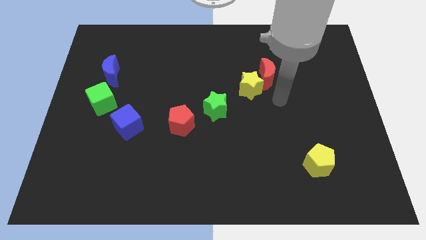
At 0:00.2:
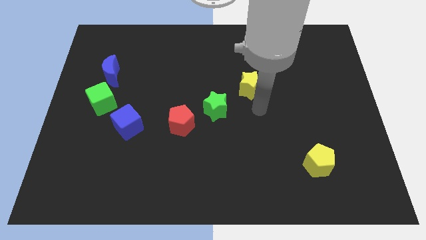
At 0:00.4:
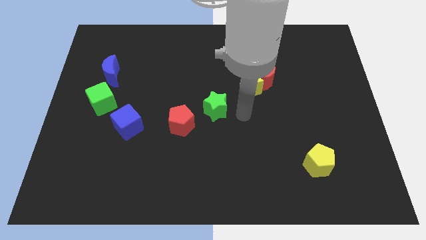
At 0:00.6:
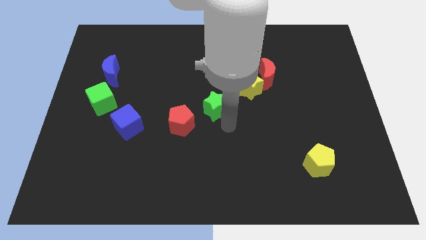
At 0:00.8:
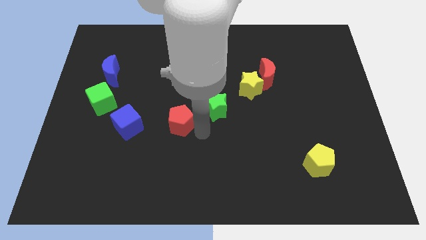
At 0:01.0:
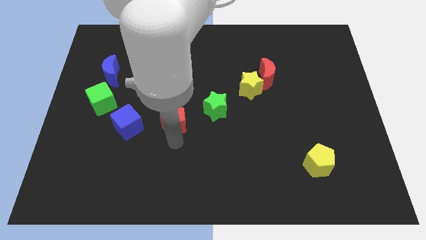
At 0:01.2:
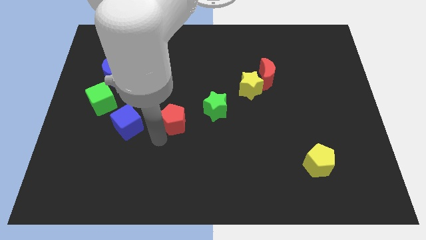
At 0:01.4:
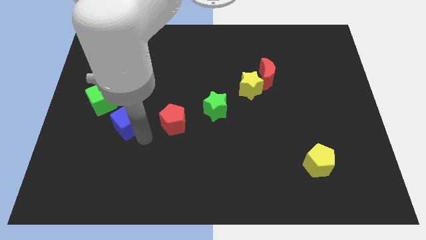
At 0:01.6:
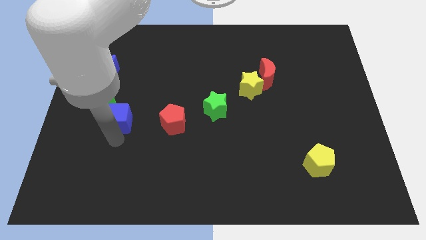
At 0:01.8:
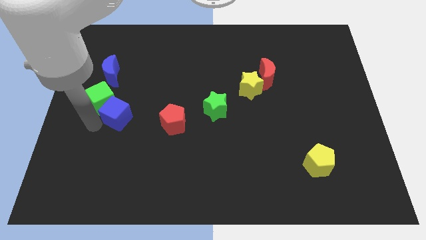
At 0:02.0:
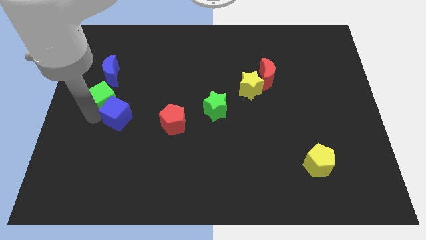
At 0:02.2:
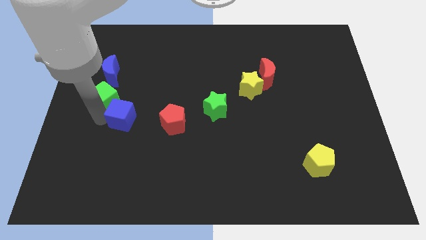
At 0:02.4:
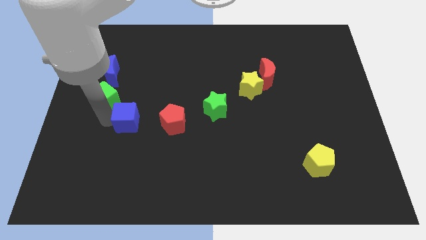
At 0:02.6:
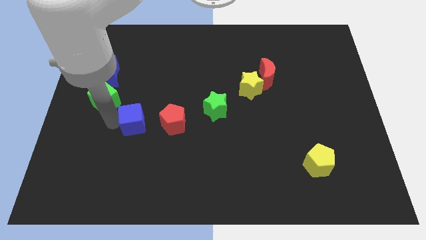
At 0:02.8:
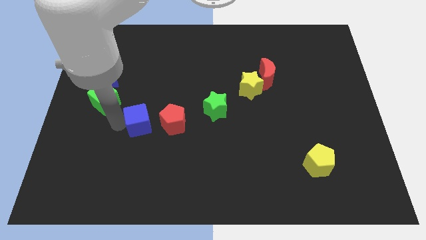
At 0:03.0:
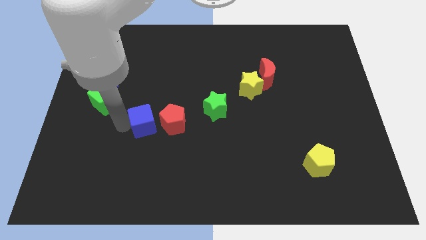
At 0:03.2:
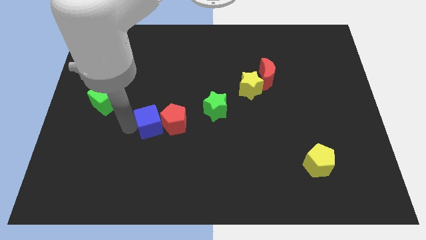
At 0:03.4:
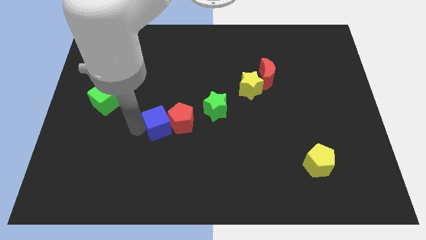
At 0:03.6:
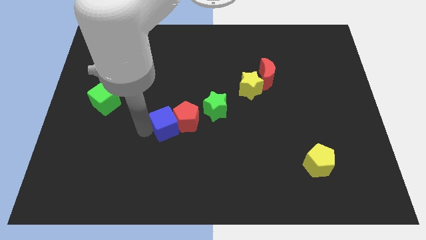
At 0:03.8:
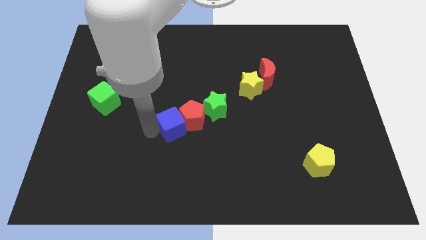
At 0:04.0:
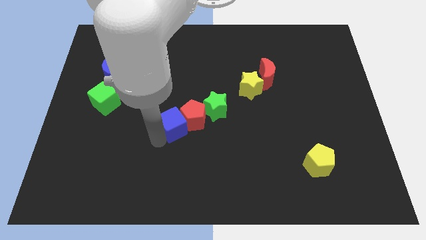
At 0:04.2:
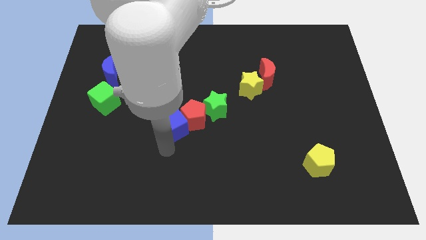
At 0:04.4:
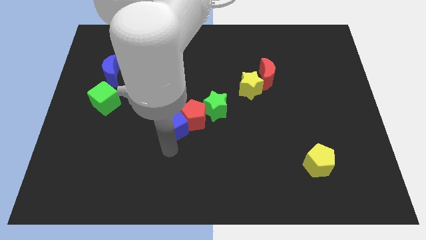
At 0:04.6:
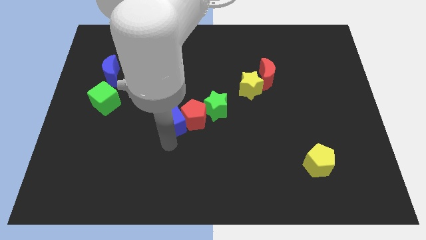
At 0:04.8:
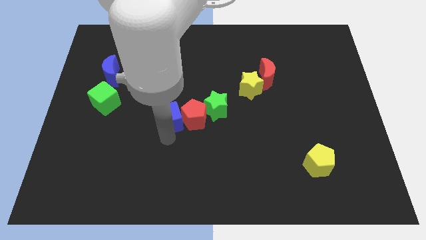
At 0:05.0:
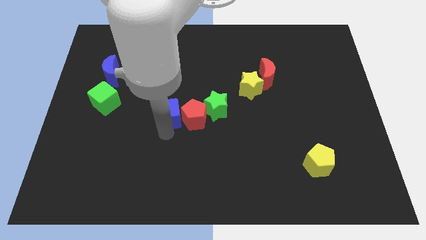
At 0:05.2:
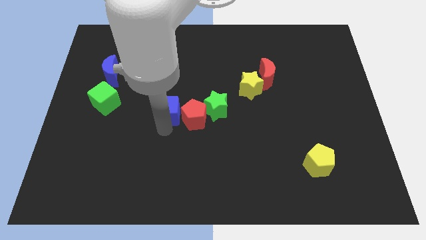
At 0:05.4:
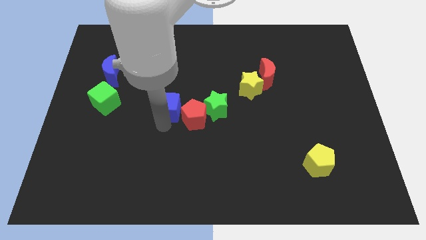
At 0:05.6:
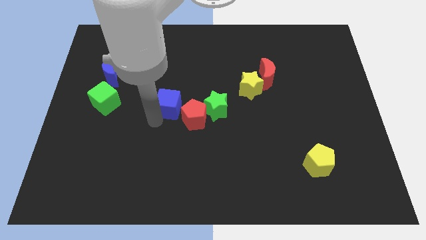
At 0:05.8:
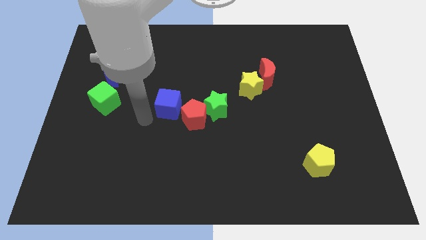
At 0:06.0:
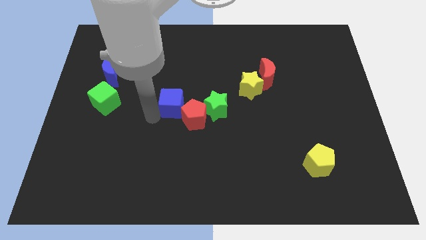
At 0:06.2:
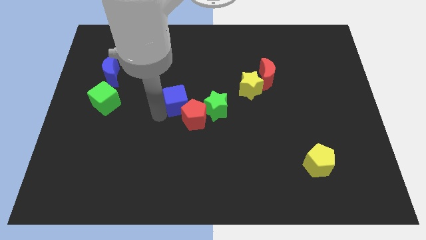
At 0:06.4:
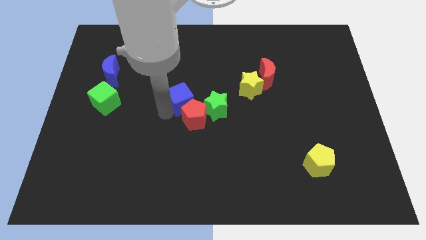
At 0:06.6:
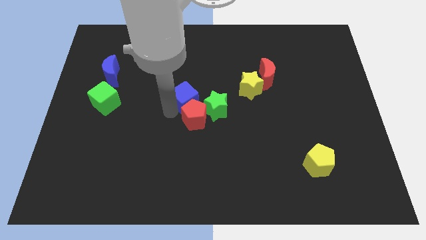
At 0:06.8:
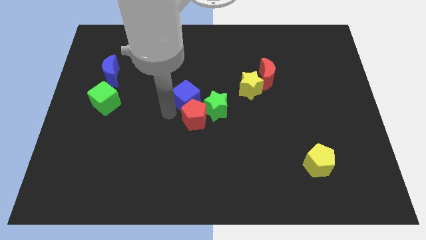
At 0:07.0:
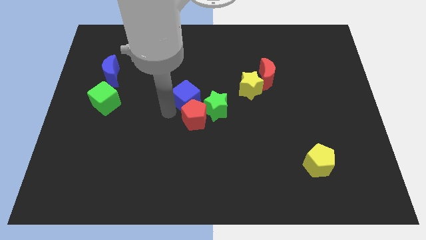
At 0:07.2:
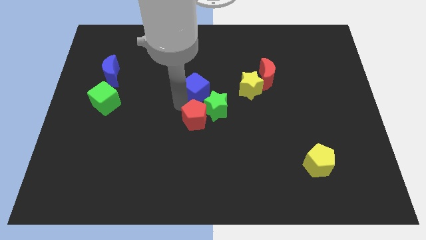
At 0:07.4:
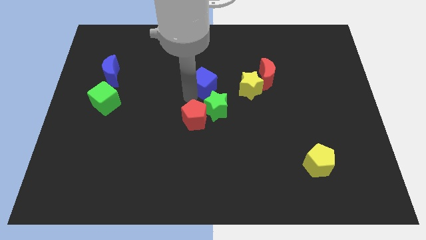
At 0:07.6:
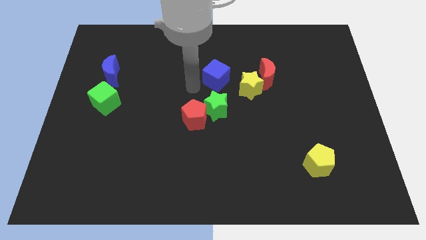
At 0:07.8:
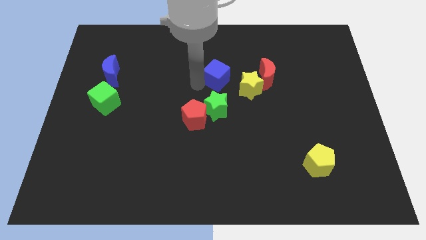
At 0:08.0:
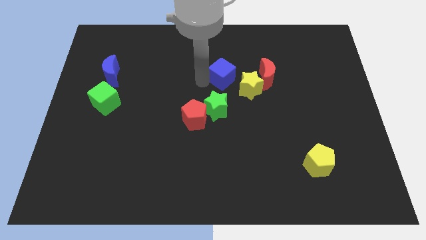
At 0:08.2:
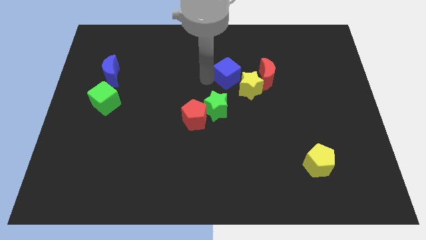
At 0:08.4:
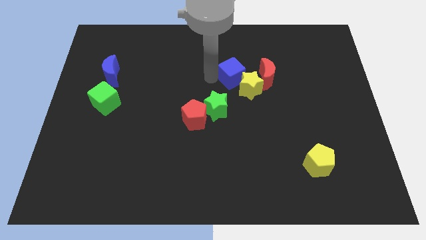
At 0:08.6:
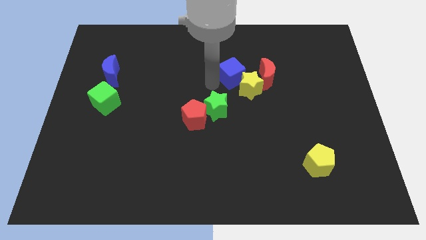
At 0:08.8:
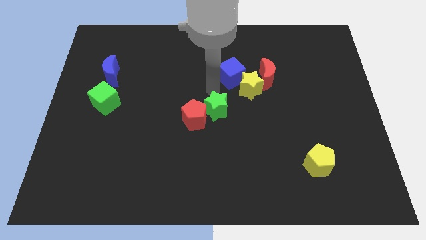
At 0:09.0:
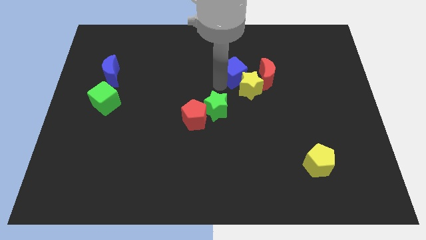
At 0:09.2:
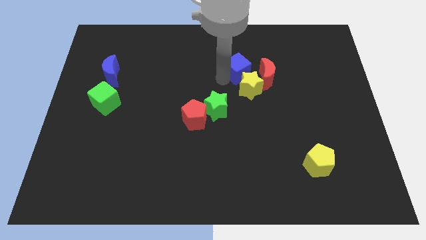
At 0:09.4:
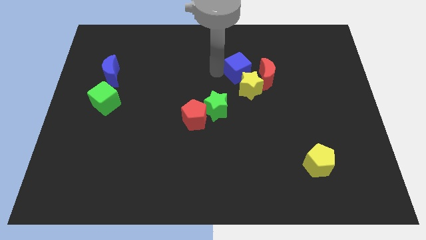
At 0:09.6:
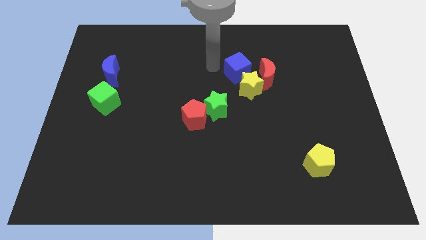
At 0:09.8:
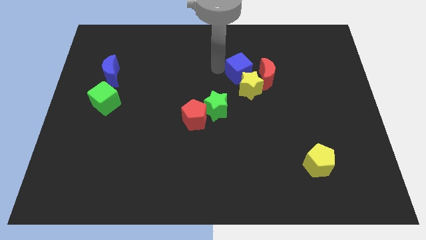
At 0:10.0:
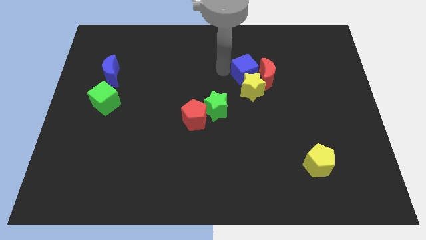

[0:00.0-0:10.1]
slide the blue cube next to the red moon

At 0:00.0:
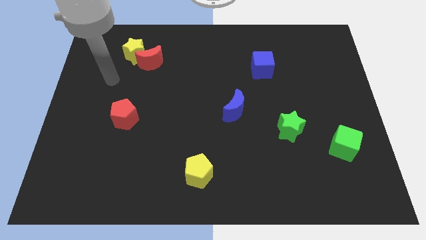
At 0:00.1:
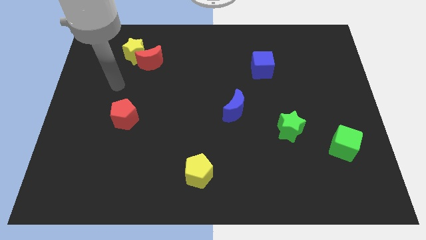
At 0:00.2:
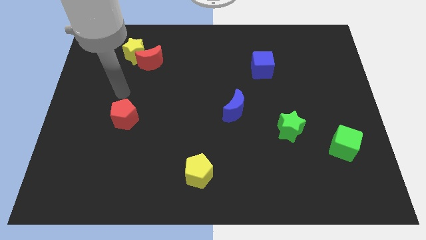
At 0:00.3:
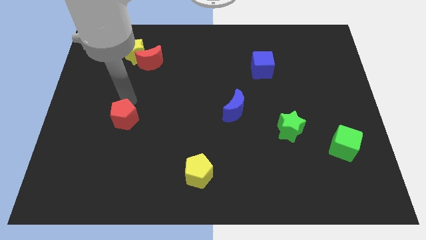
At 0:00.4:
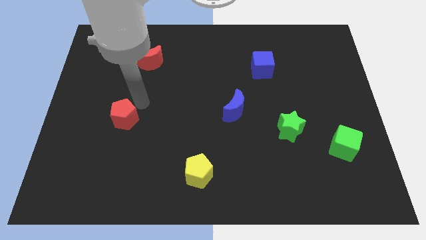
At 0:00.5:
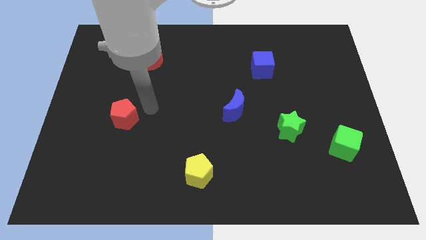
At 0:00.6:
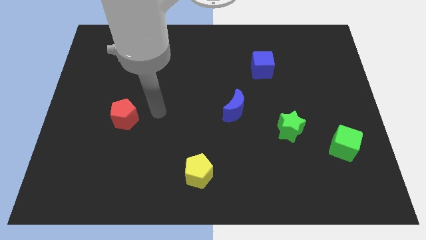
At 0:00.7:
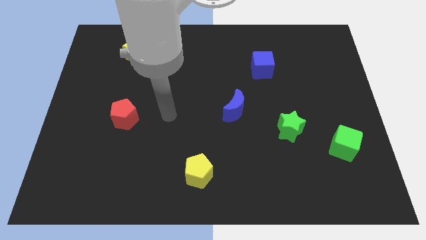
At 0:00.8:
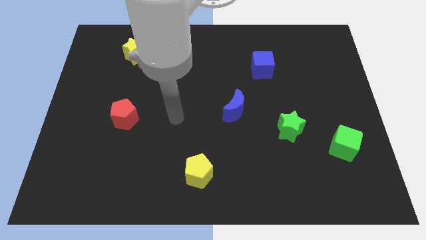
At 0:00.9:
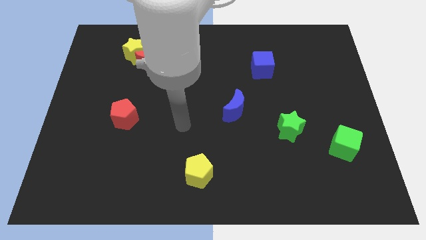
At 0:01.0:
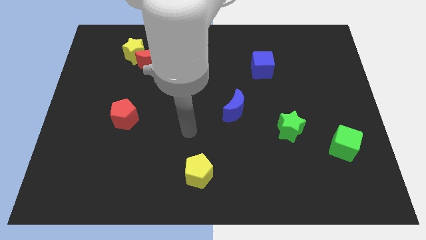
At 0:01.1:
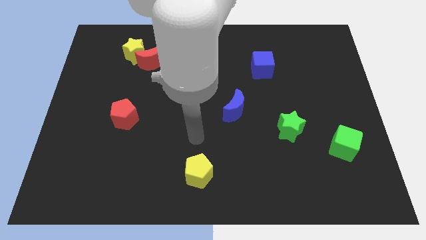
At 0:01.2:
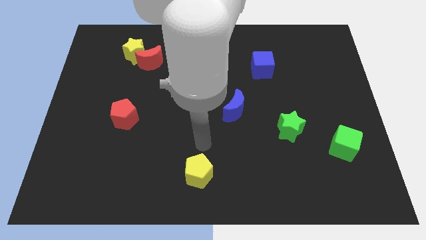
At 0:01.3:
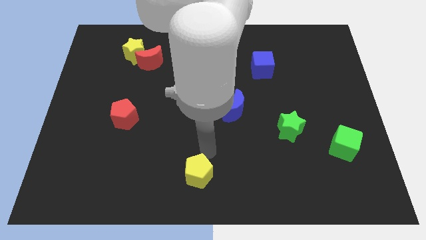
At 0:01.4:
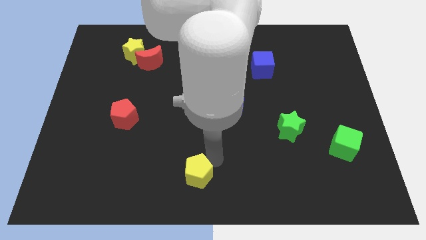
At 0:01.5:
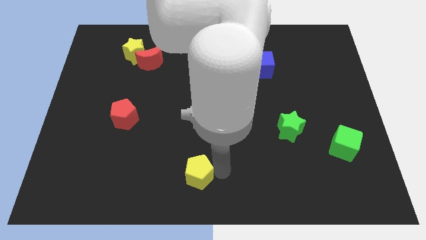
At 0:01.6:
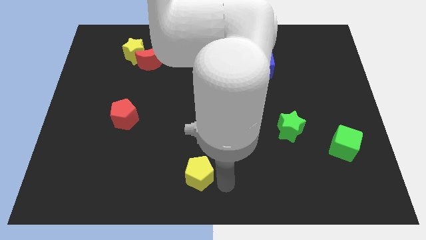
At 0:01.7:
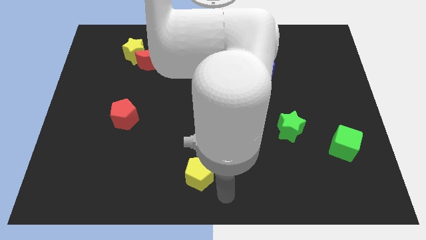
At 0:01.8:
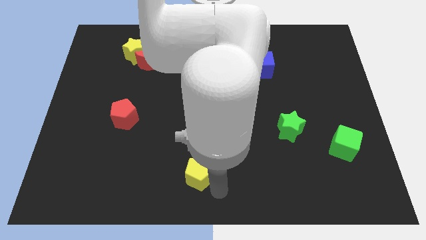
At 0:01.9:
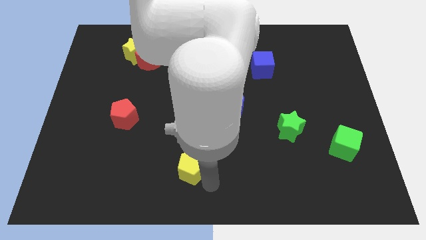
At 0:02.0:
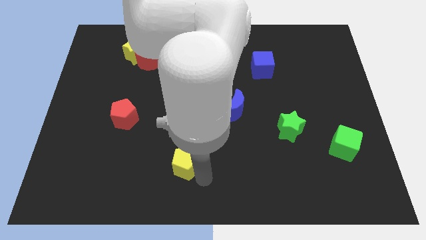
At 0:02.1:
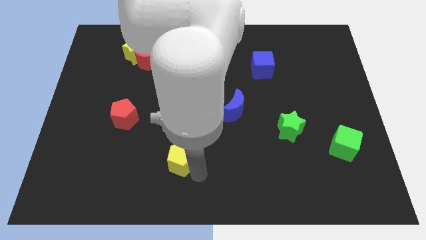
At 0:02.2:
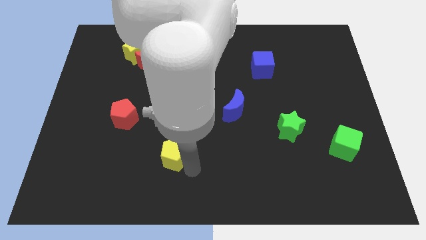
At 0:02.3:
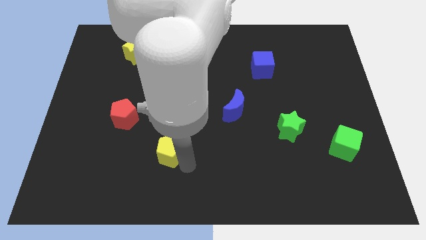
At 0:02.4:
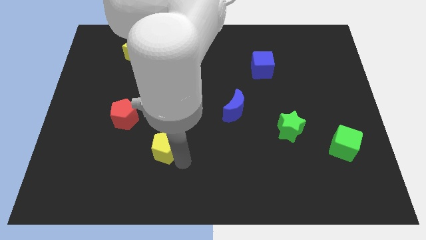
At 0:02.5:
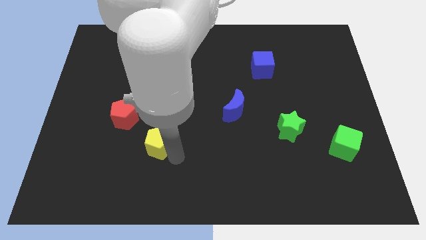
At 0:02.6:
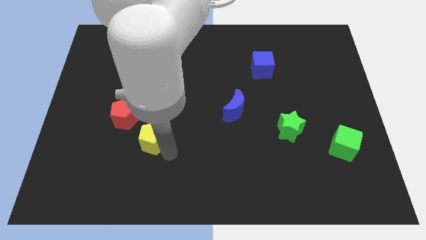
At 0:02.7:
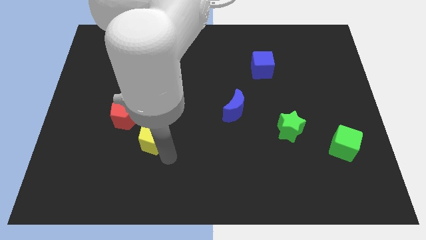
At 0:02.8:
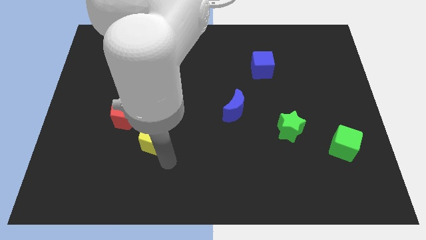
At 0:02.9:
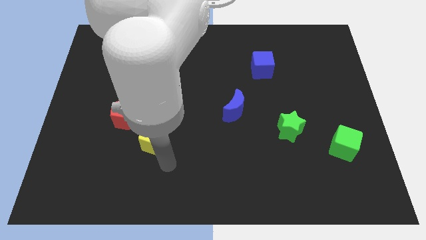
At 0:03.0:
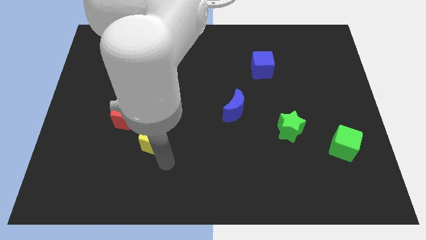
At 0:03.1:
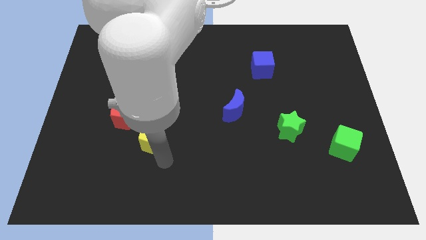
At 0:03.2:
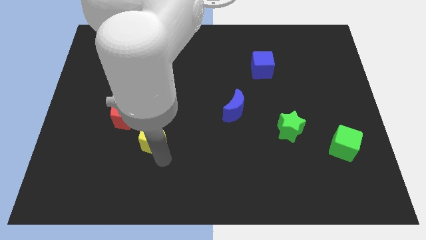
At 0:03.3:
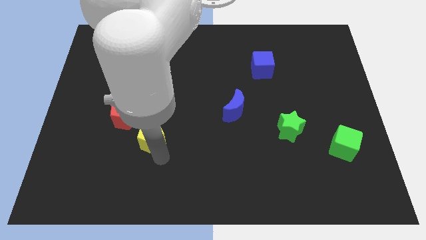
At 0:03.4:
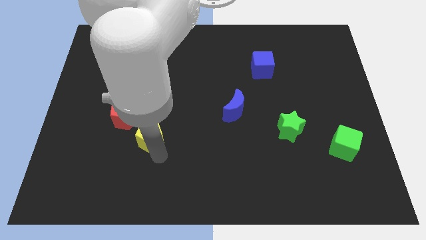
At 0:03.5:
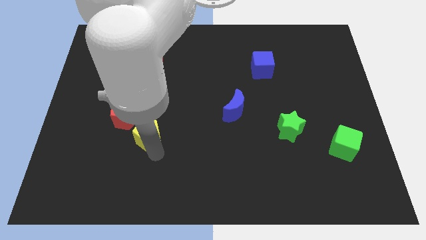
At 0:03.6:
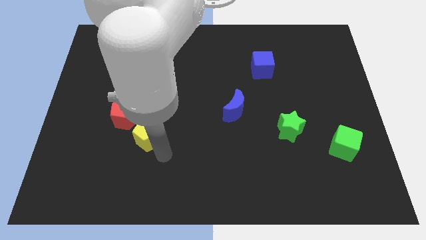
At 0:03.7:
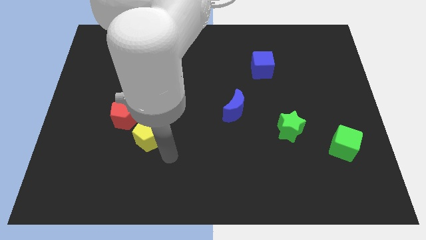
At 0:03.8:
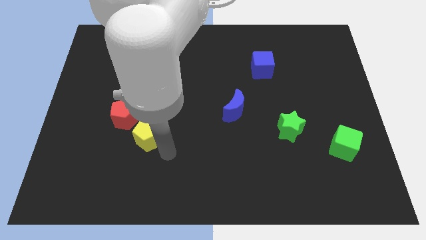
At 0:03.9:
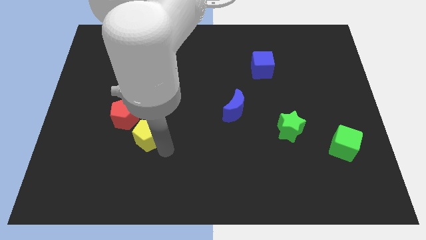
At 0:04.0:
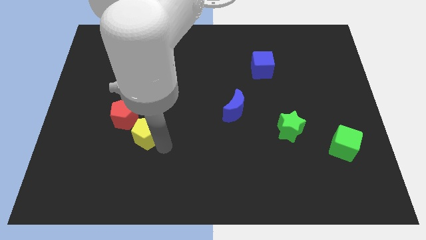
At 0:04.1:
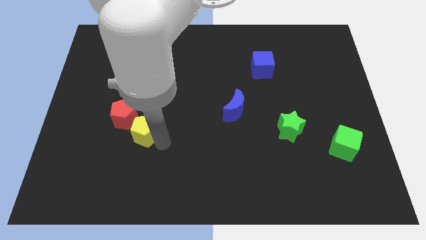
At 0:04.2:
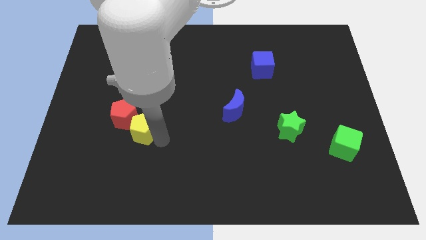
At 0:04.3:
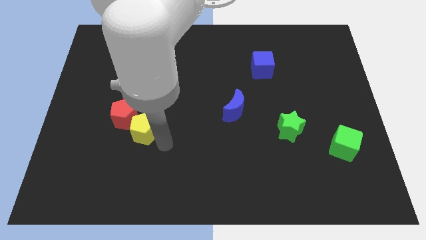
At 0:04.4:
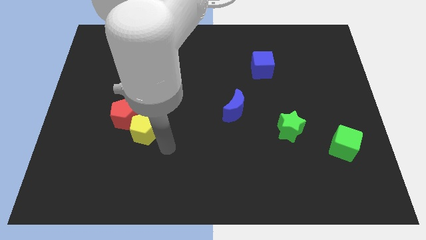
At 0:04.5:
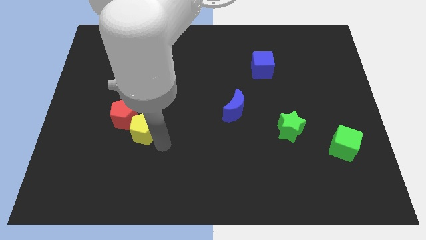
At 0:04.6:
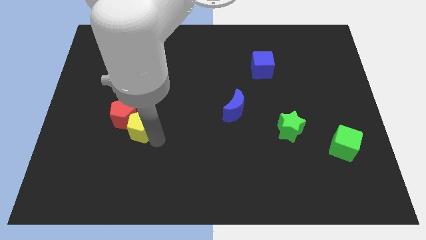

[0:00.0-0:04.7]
put the yellow pentagon close to the red pentagon
